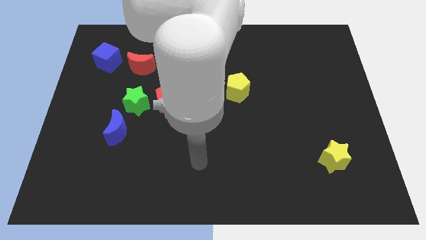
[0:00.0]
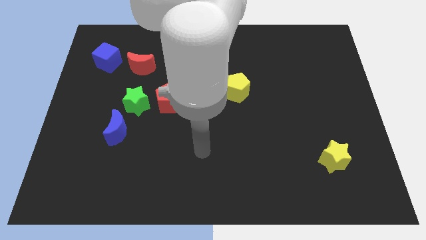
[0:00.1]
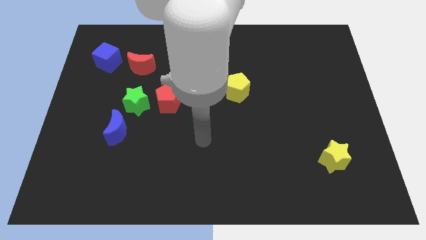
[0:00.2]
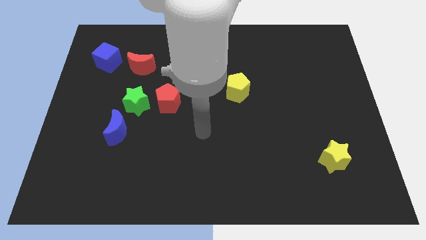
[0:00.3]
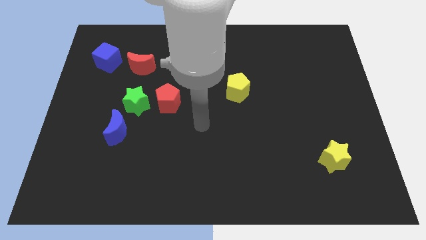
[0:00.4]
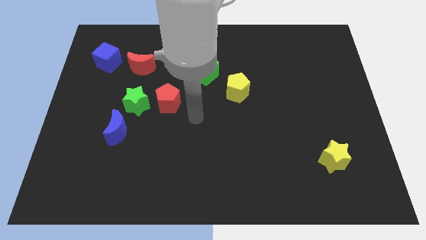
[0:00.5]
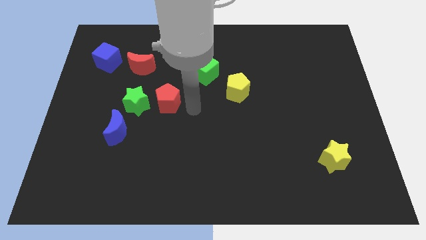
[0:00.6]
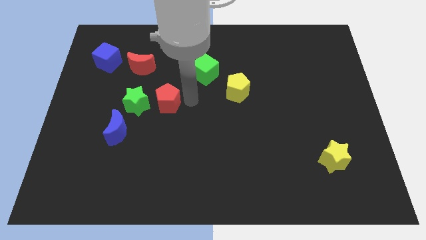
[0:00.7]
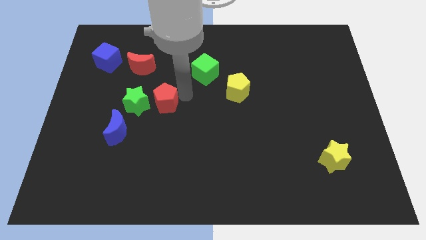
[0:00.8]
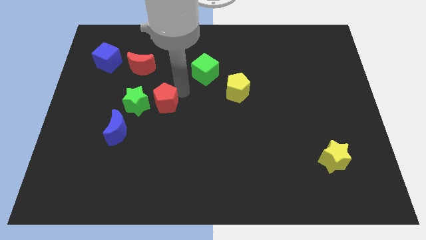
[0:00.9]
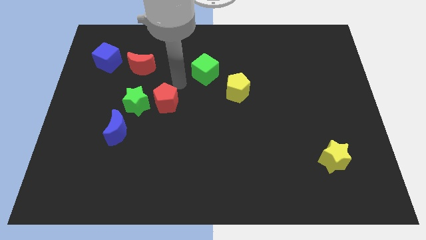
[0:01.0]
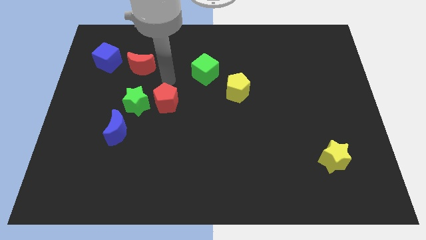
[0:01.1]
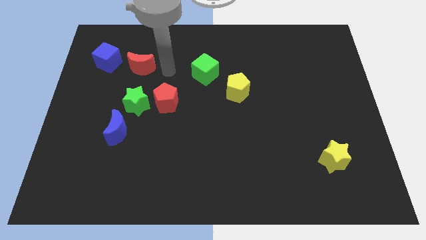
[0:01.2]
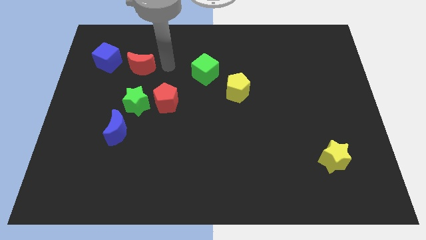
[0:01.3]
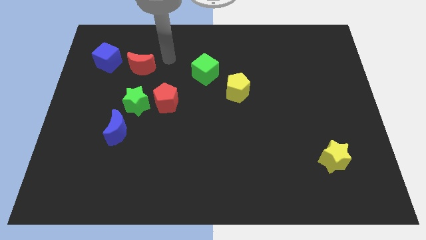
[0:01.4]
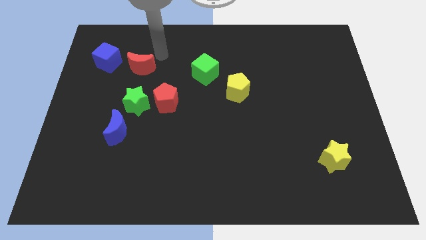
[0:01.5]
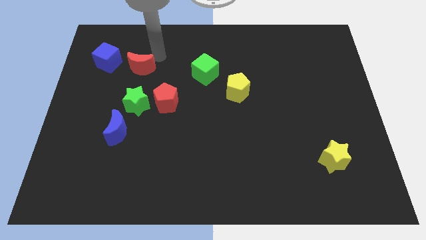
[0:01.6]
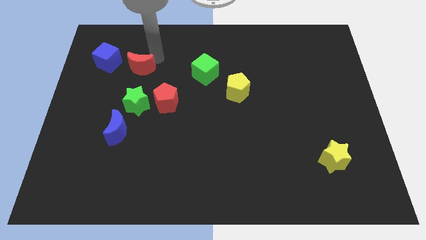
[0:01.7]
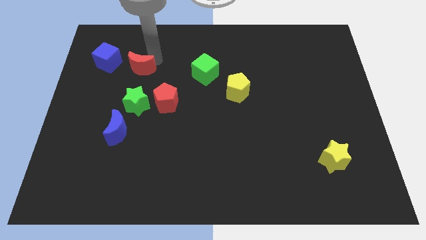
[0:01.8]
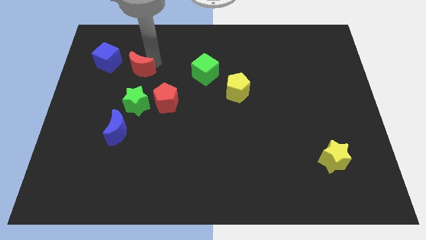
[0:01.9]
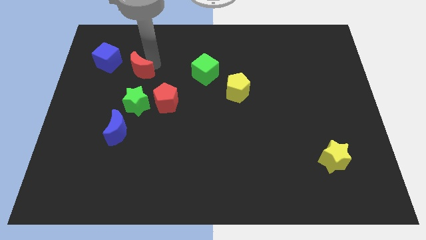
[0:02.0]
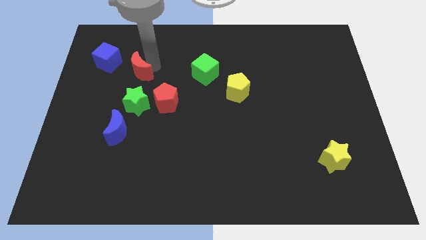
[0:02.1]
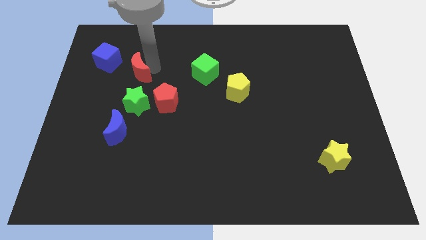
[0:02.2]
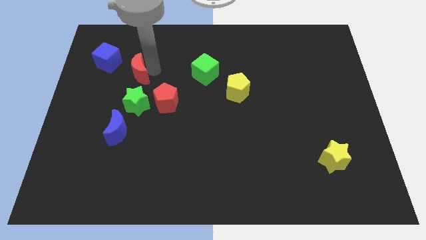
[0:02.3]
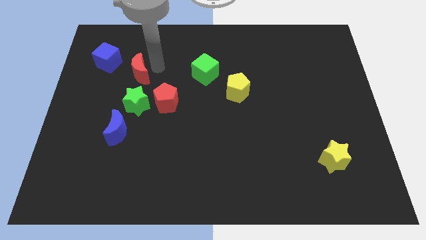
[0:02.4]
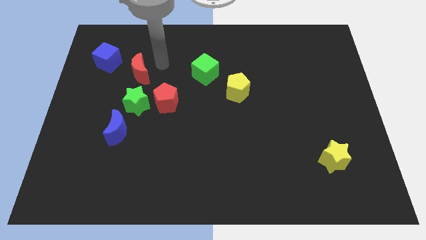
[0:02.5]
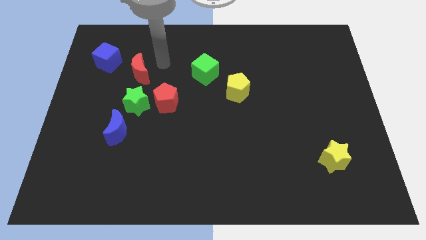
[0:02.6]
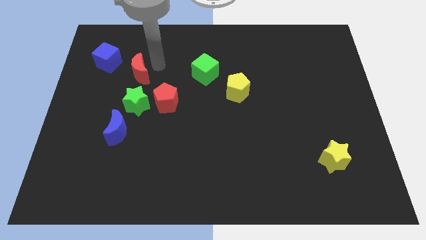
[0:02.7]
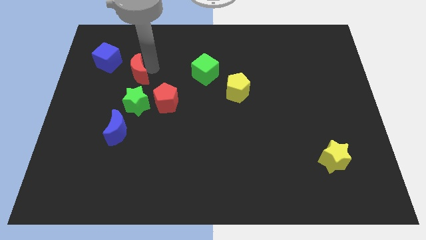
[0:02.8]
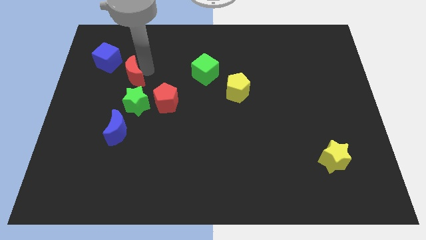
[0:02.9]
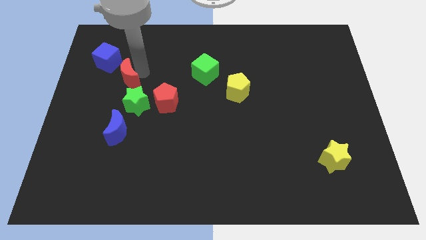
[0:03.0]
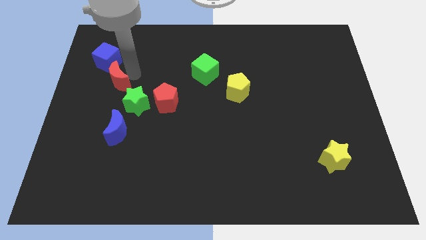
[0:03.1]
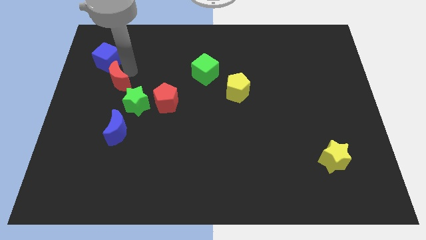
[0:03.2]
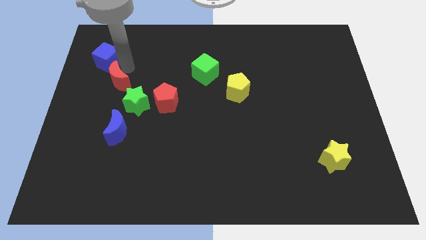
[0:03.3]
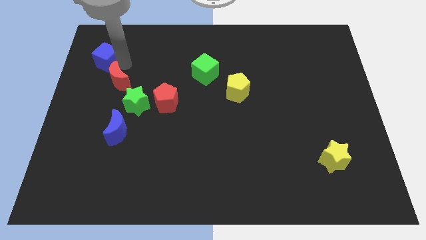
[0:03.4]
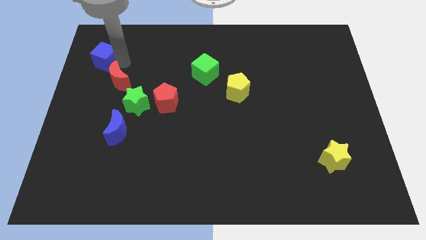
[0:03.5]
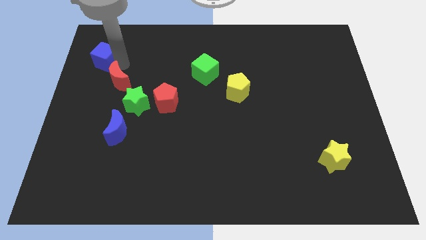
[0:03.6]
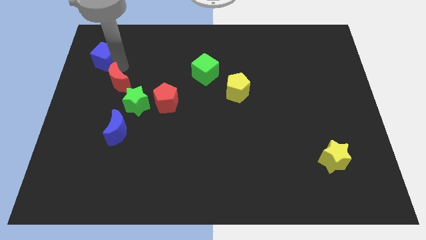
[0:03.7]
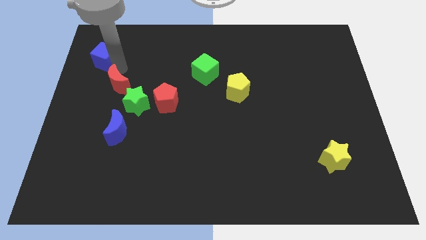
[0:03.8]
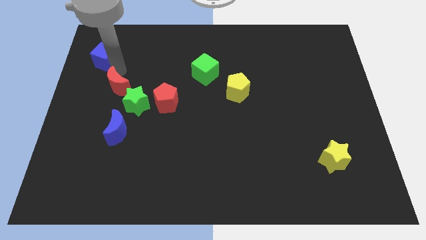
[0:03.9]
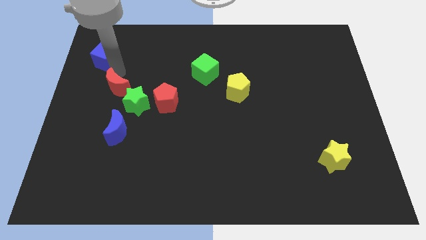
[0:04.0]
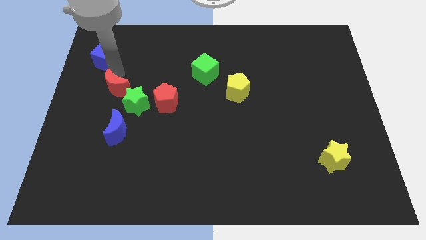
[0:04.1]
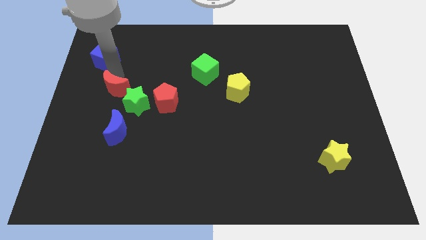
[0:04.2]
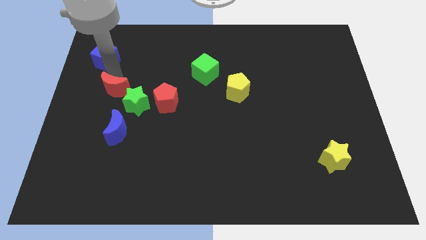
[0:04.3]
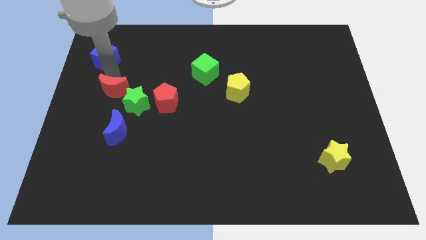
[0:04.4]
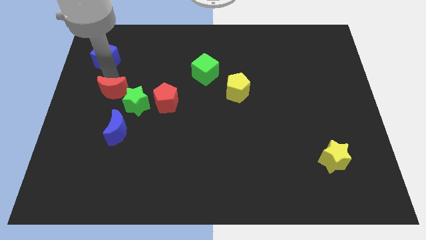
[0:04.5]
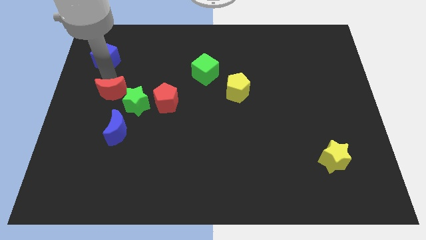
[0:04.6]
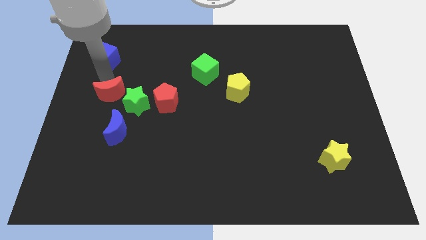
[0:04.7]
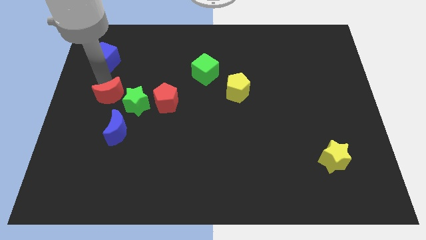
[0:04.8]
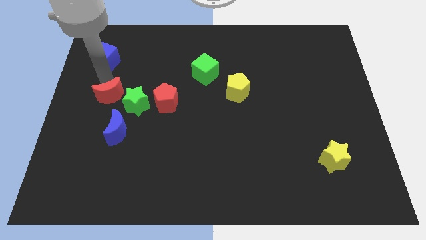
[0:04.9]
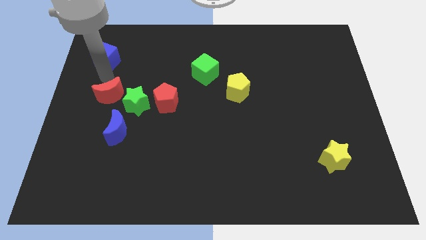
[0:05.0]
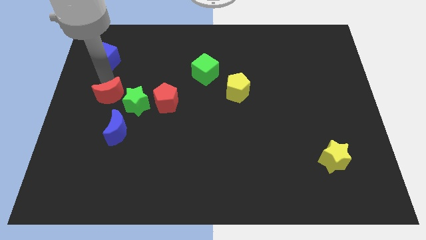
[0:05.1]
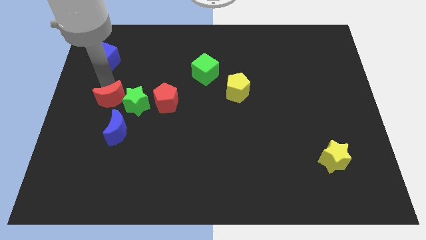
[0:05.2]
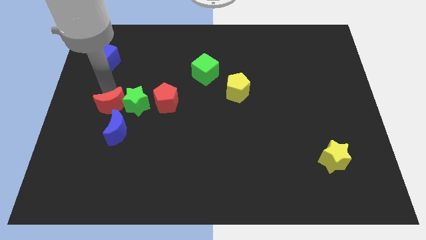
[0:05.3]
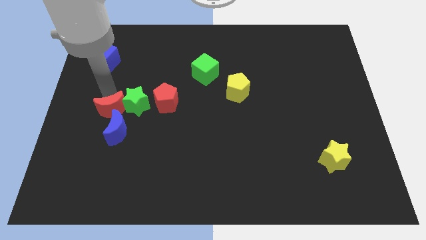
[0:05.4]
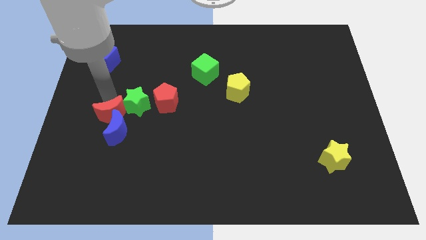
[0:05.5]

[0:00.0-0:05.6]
put the red moon towards the blue moon

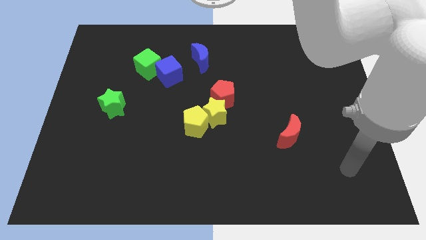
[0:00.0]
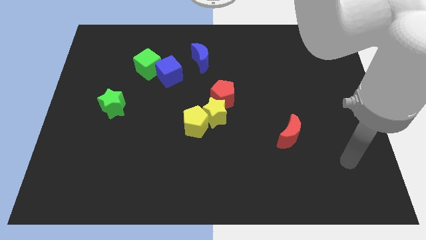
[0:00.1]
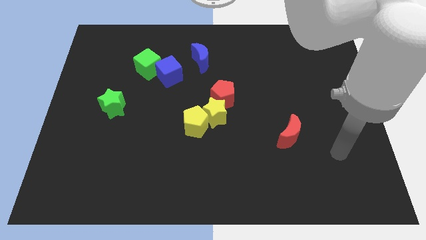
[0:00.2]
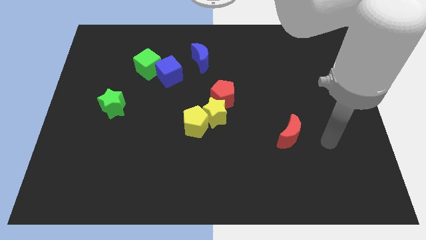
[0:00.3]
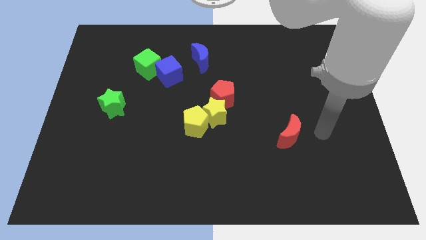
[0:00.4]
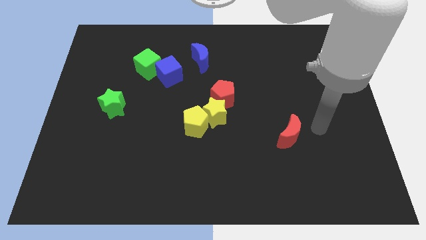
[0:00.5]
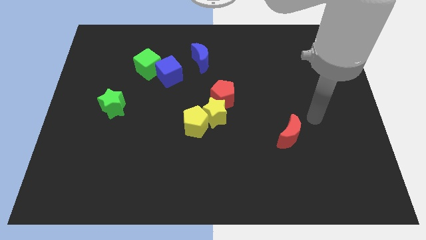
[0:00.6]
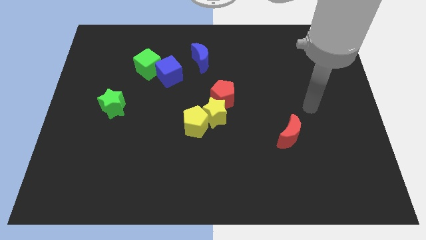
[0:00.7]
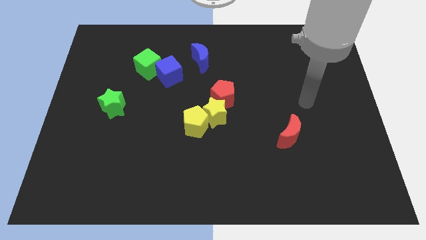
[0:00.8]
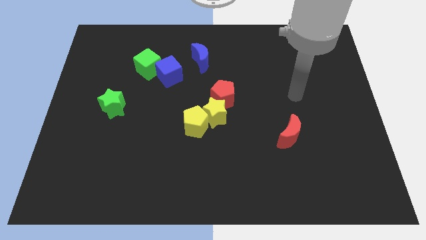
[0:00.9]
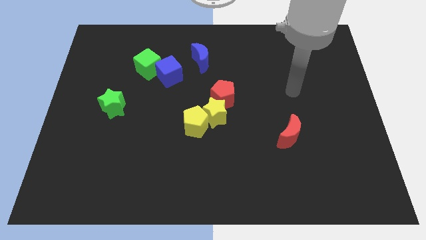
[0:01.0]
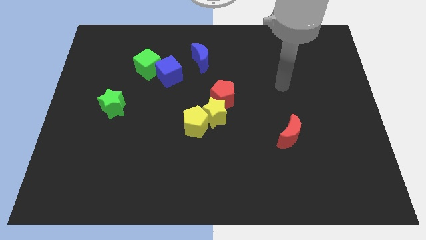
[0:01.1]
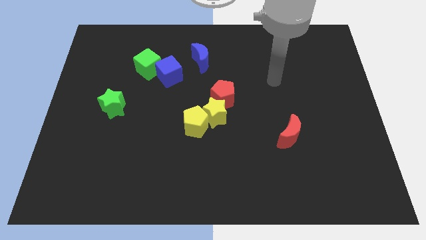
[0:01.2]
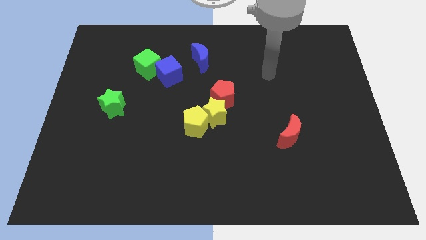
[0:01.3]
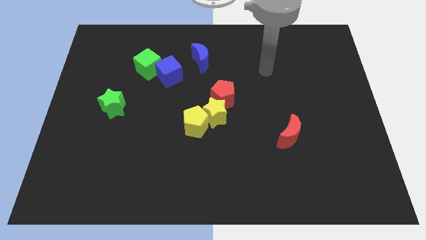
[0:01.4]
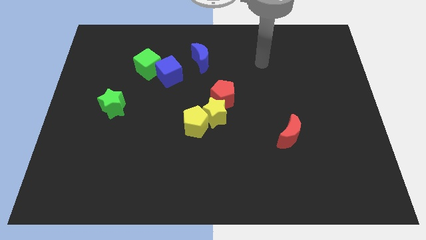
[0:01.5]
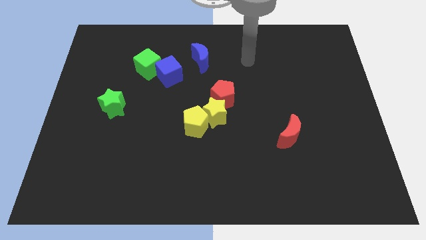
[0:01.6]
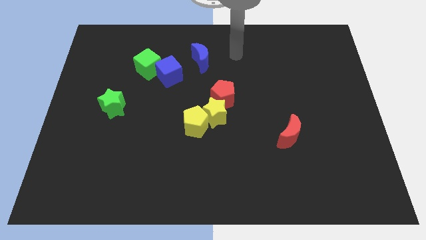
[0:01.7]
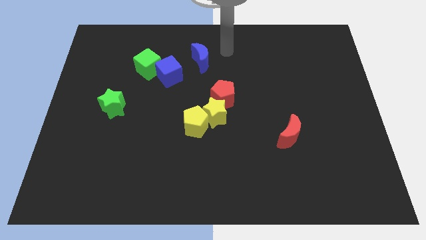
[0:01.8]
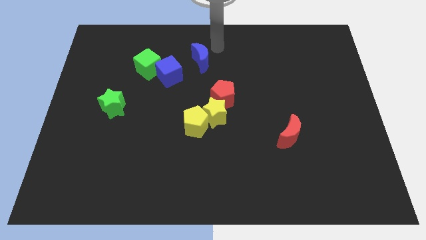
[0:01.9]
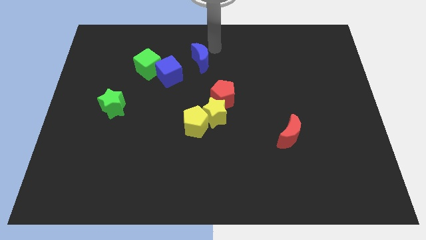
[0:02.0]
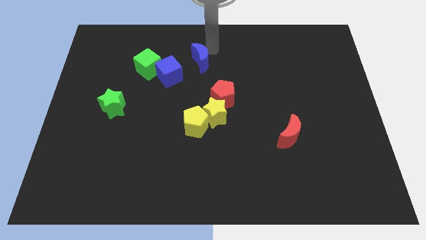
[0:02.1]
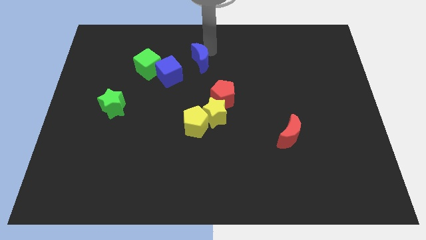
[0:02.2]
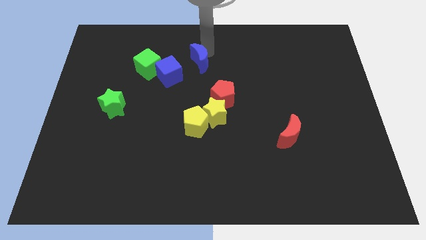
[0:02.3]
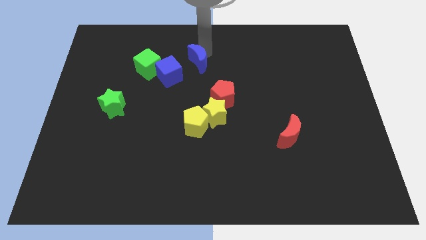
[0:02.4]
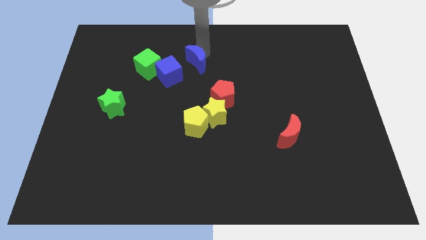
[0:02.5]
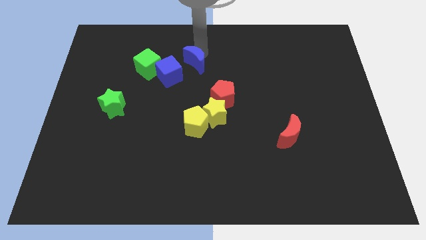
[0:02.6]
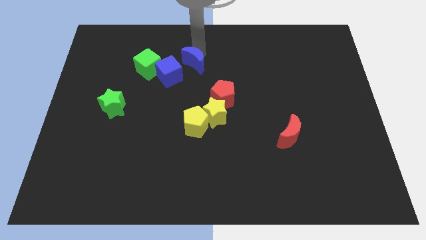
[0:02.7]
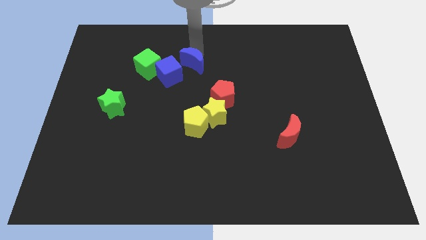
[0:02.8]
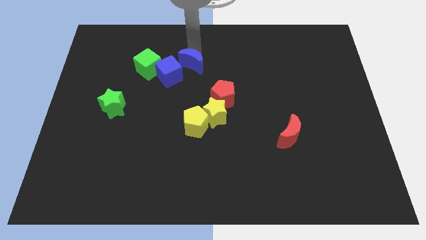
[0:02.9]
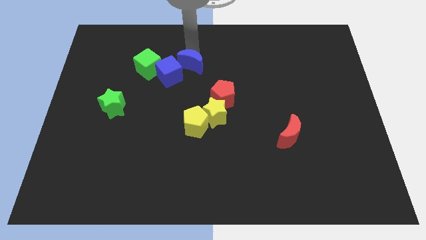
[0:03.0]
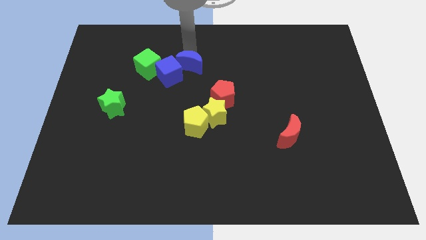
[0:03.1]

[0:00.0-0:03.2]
put the blue moon to the blue cube
